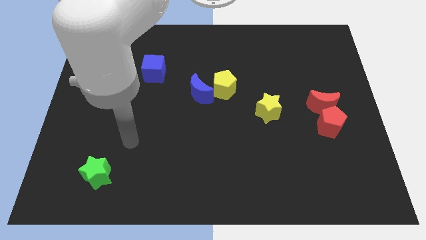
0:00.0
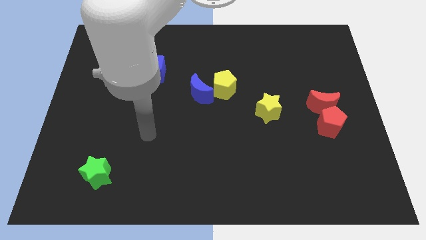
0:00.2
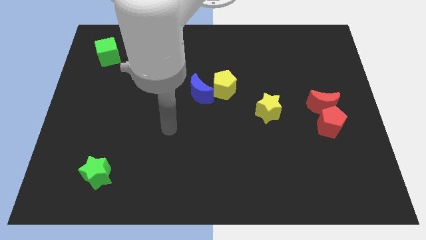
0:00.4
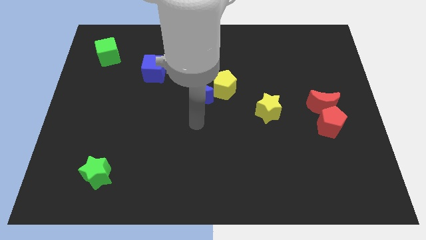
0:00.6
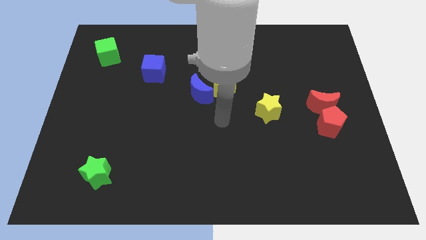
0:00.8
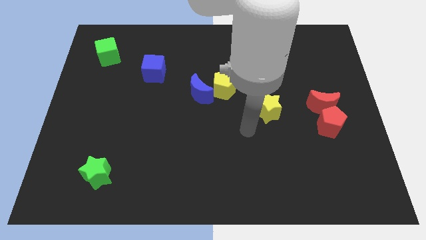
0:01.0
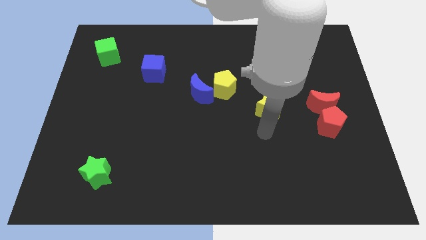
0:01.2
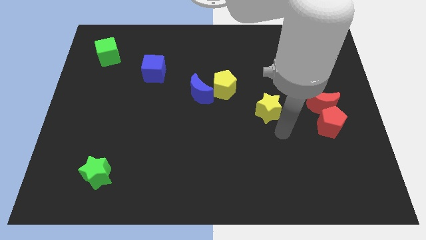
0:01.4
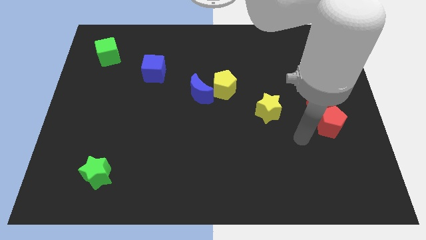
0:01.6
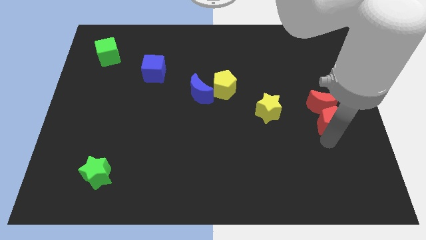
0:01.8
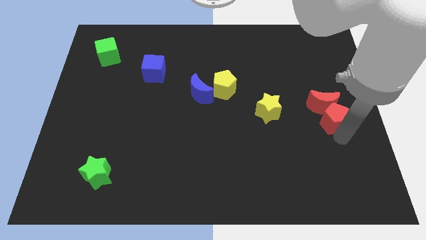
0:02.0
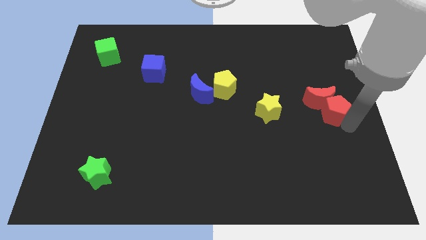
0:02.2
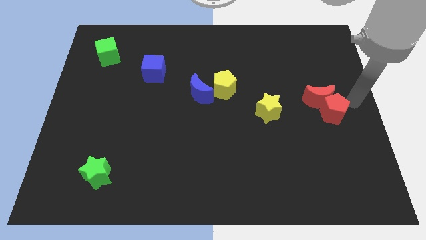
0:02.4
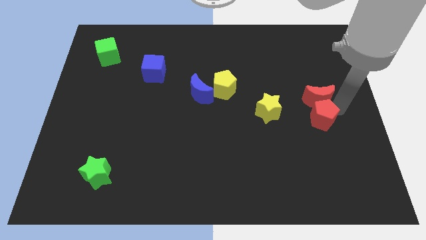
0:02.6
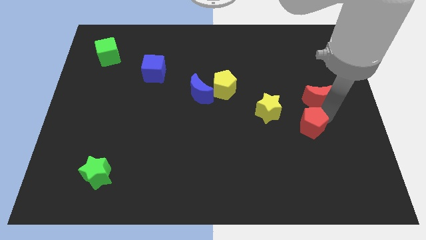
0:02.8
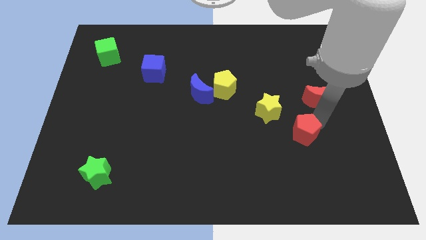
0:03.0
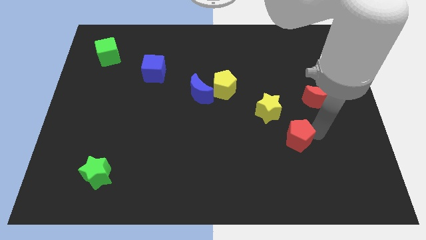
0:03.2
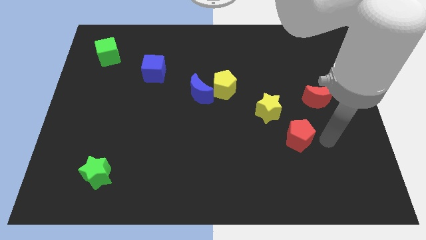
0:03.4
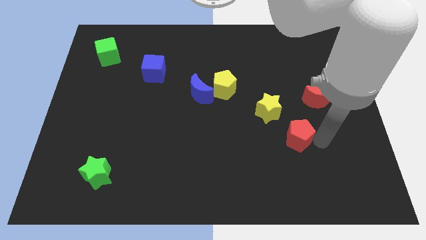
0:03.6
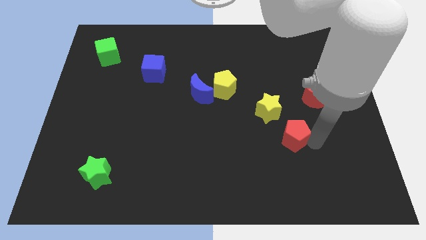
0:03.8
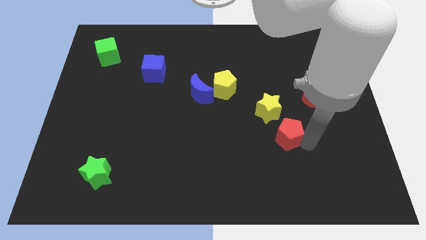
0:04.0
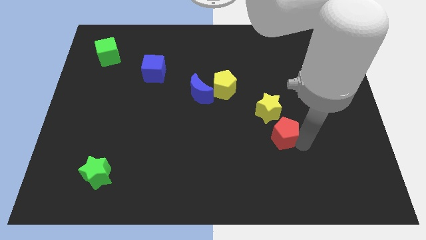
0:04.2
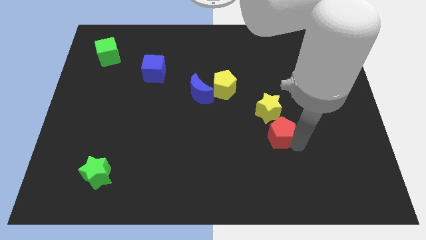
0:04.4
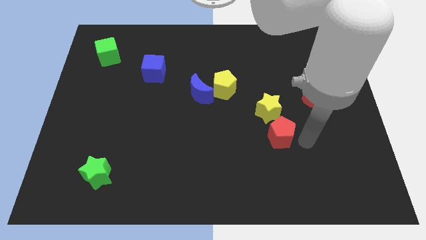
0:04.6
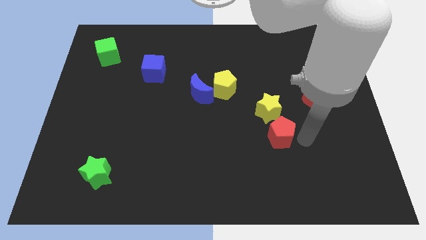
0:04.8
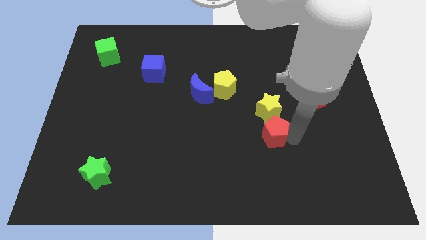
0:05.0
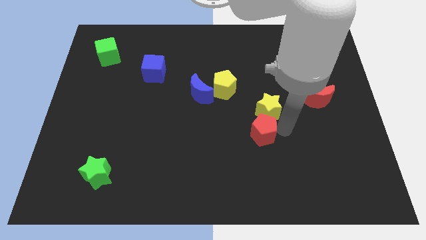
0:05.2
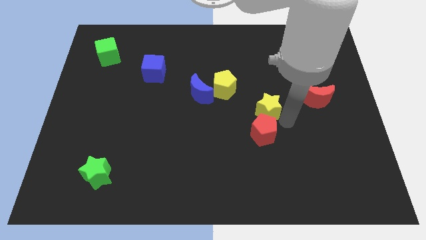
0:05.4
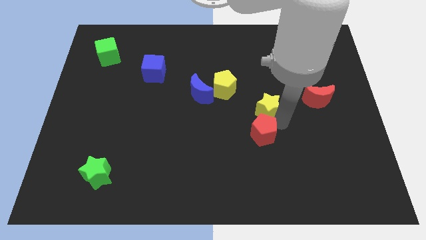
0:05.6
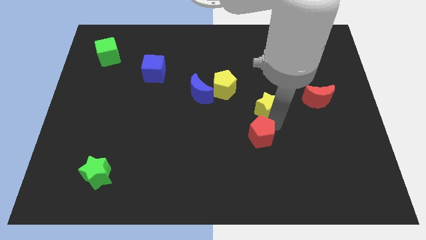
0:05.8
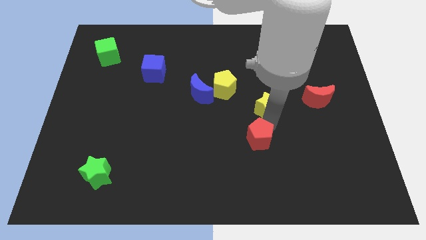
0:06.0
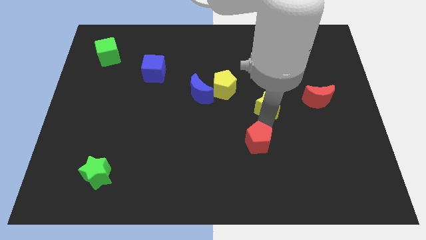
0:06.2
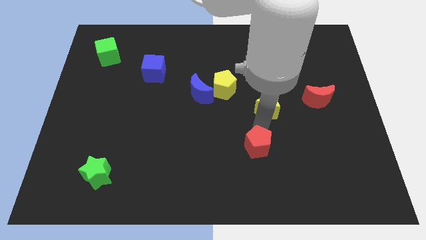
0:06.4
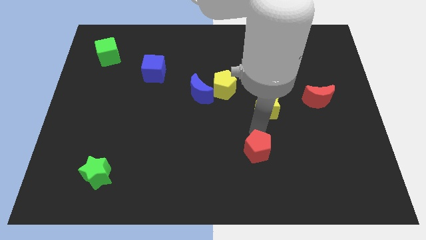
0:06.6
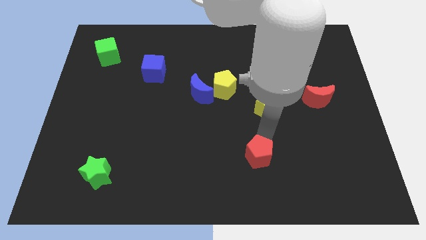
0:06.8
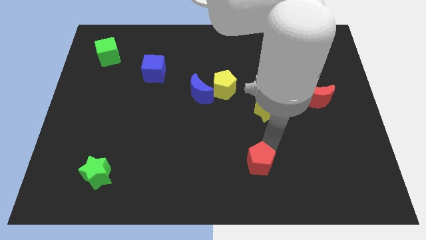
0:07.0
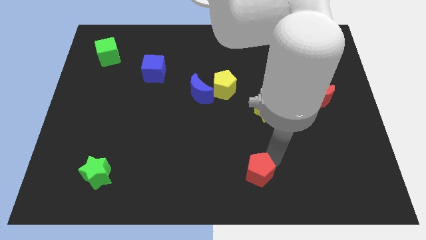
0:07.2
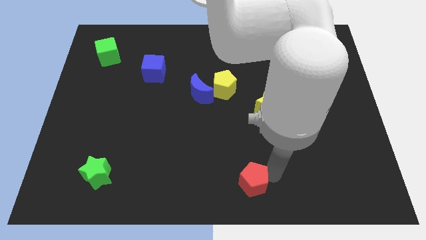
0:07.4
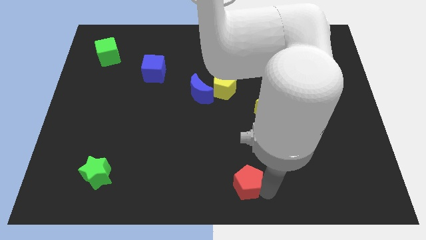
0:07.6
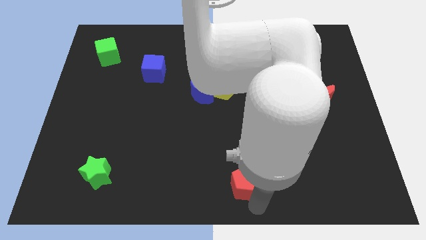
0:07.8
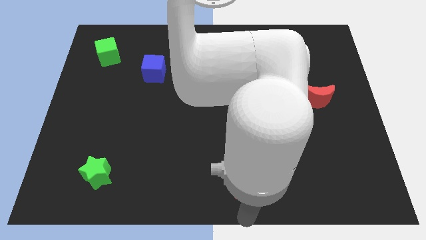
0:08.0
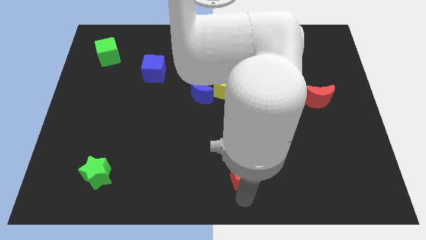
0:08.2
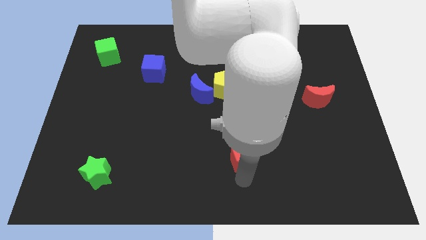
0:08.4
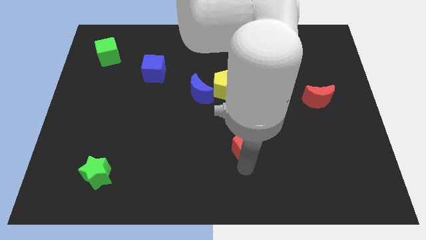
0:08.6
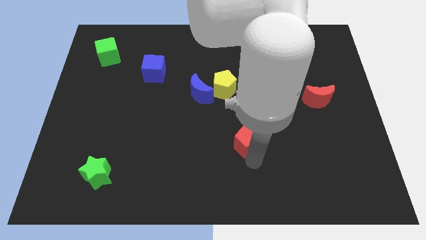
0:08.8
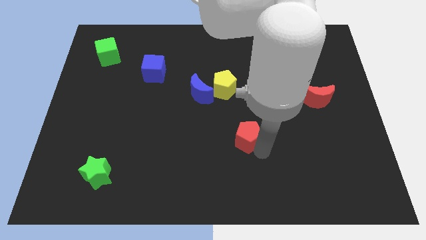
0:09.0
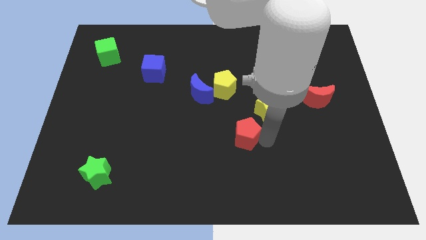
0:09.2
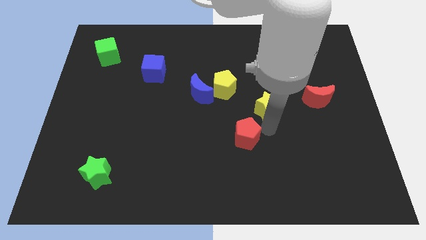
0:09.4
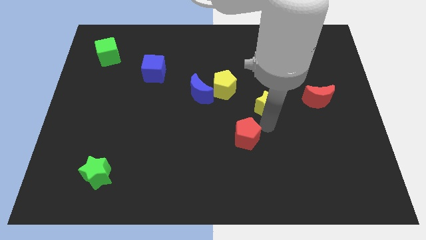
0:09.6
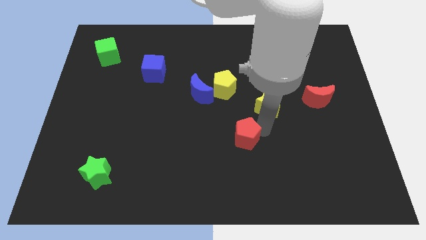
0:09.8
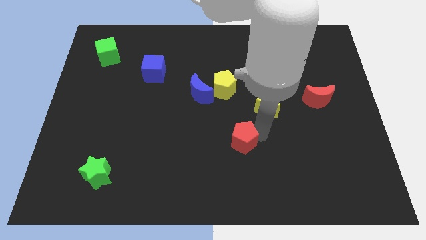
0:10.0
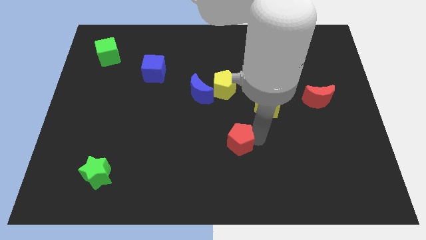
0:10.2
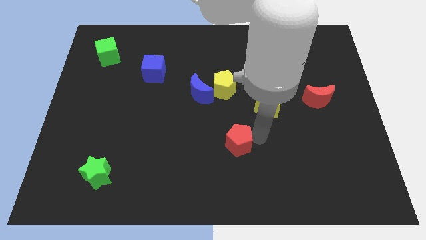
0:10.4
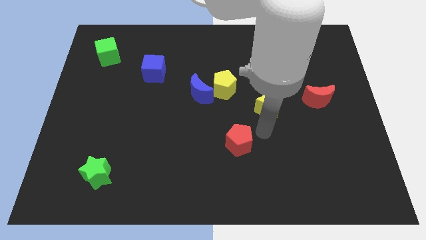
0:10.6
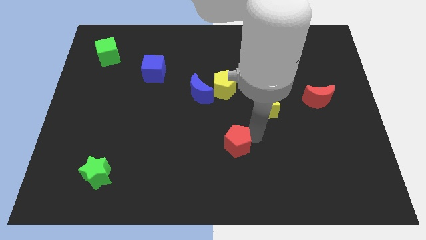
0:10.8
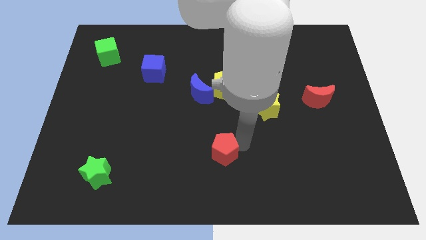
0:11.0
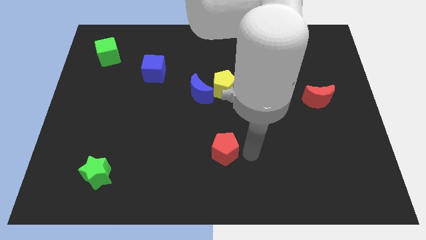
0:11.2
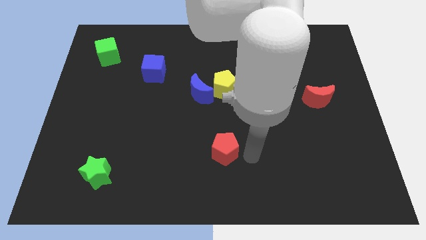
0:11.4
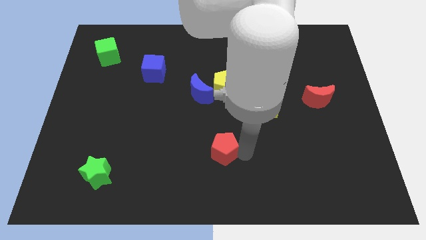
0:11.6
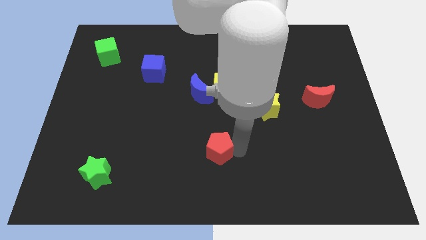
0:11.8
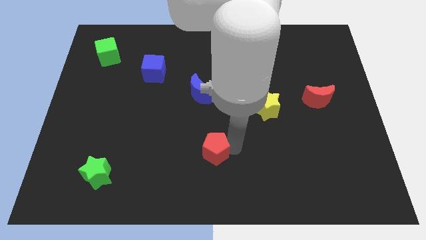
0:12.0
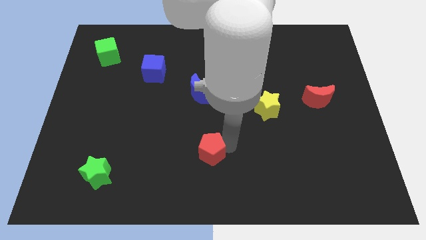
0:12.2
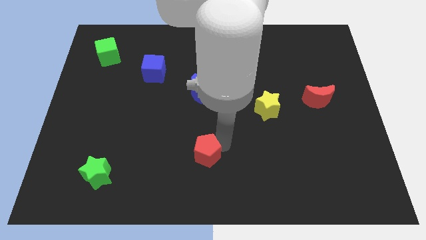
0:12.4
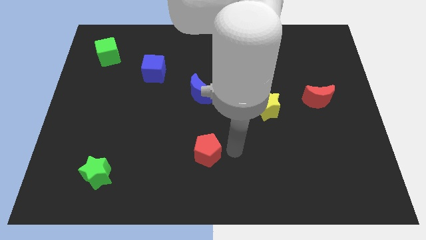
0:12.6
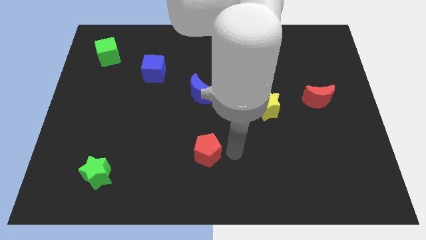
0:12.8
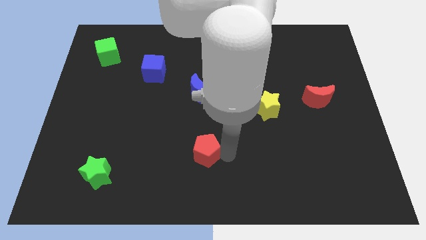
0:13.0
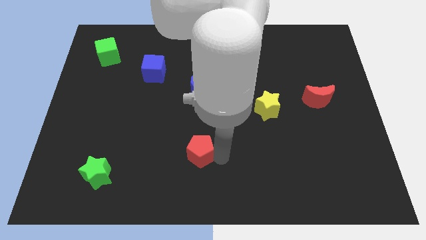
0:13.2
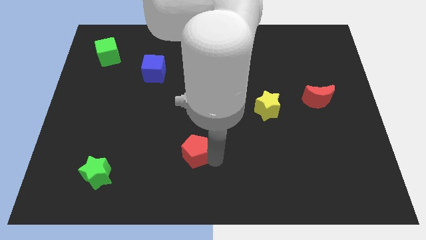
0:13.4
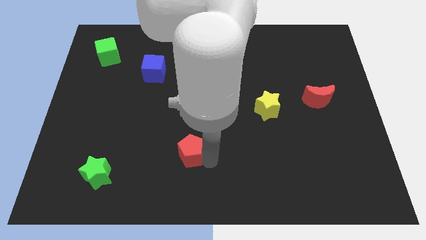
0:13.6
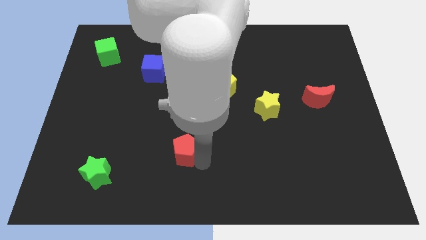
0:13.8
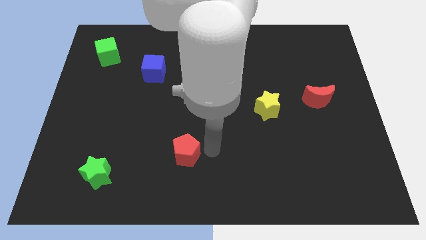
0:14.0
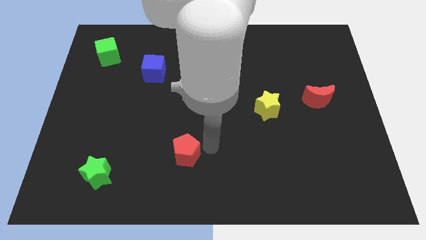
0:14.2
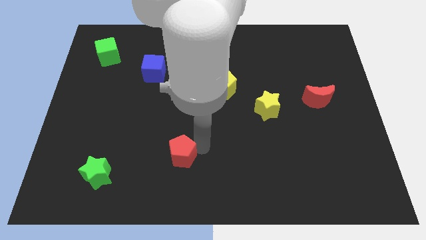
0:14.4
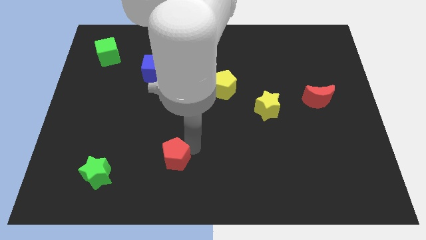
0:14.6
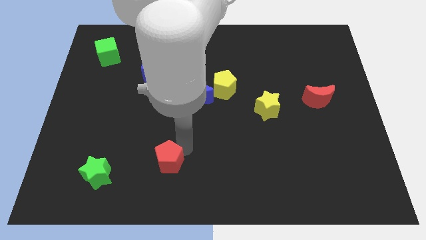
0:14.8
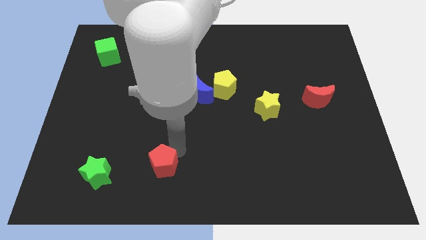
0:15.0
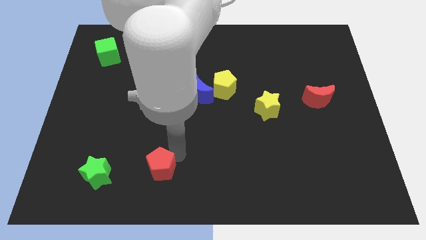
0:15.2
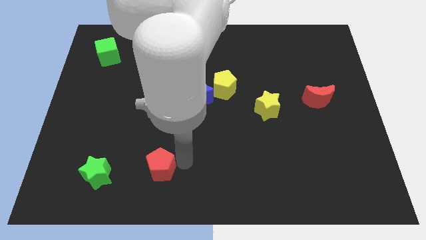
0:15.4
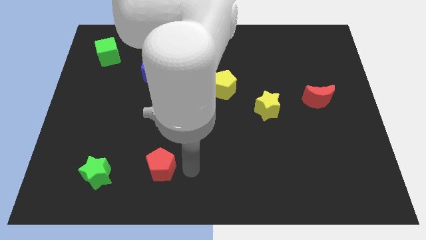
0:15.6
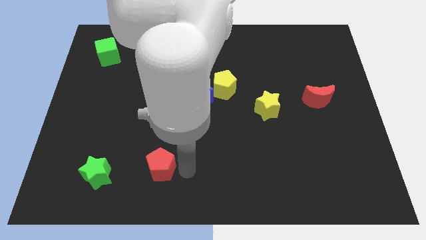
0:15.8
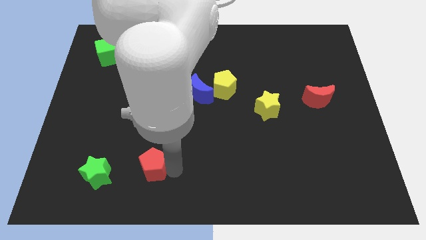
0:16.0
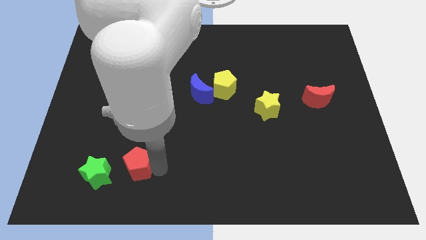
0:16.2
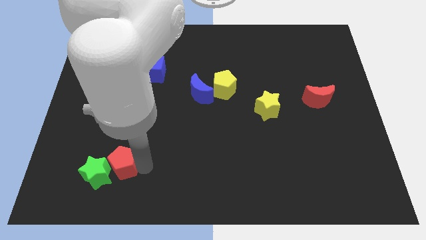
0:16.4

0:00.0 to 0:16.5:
move the red pentagon next to the green star
